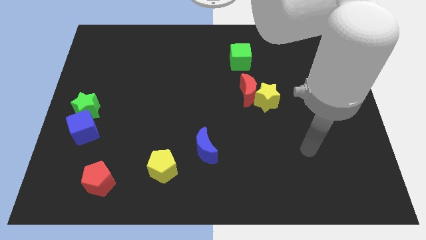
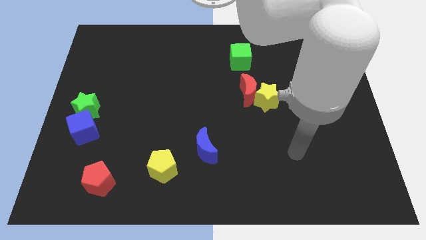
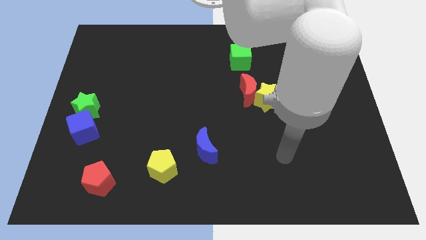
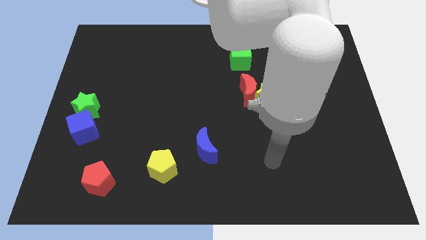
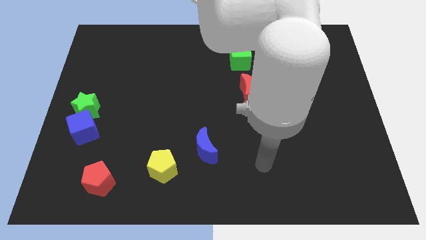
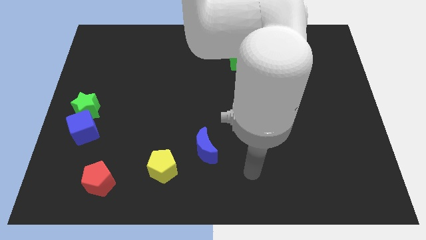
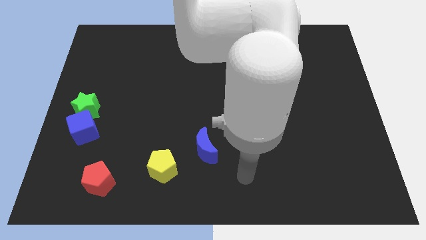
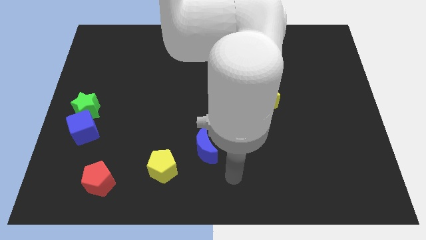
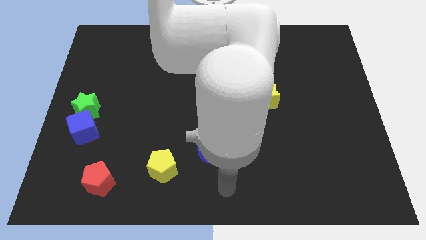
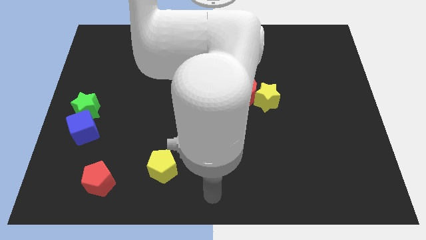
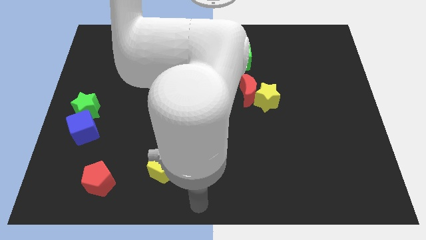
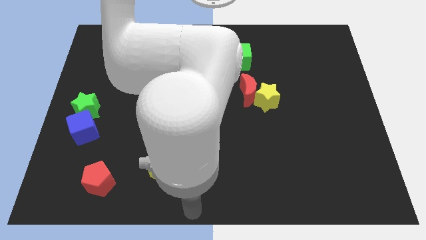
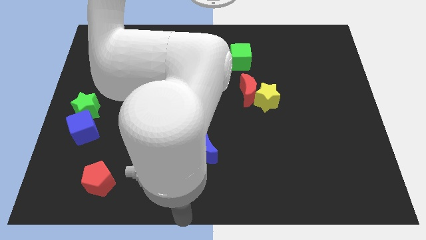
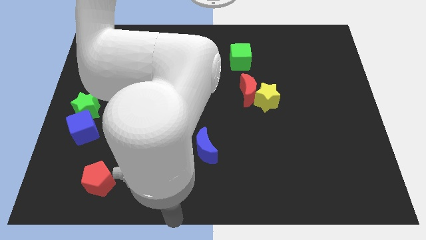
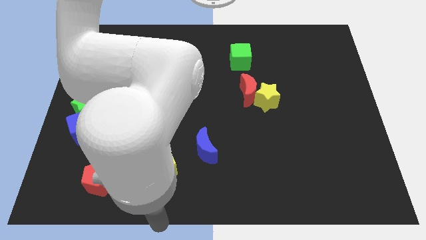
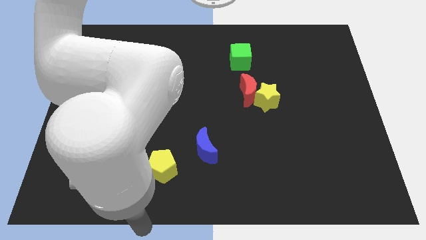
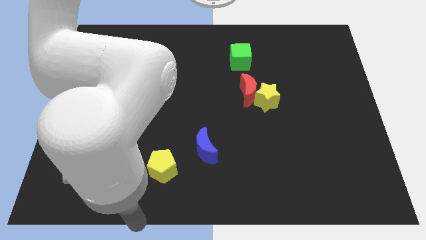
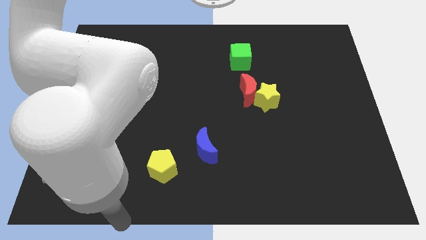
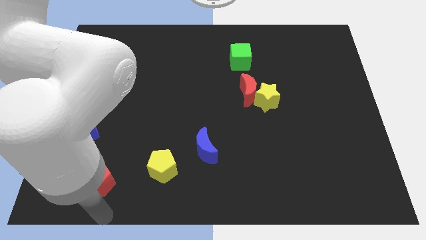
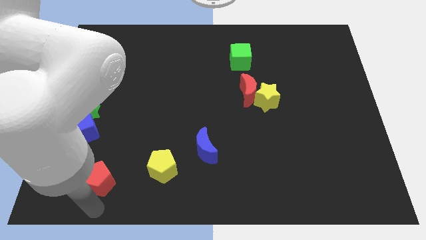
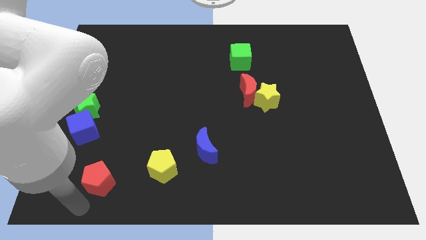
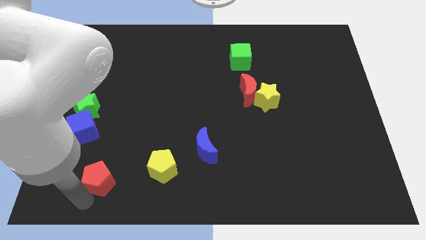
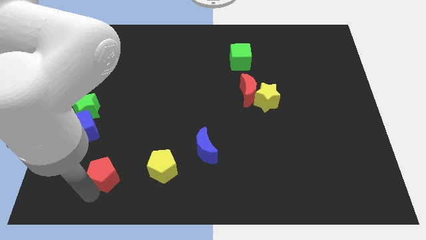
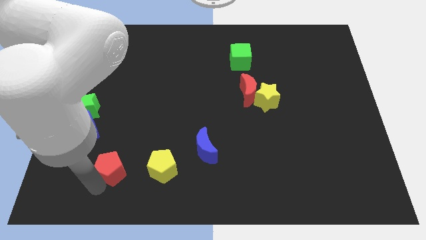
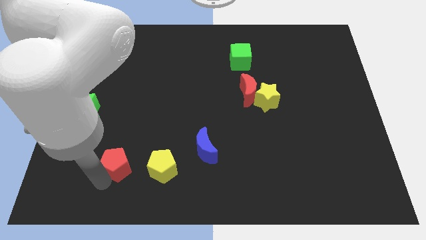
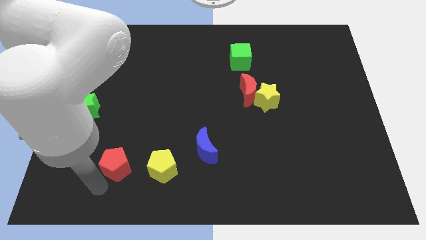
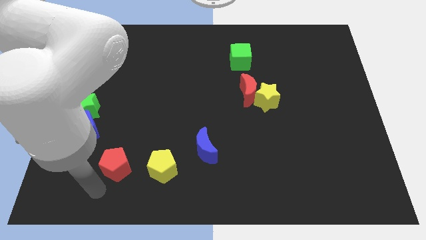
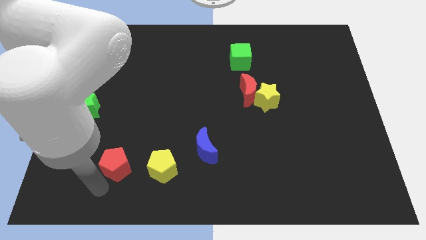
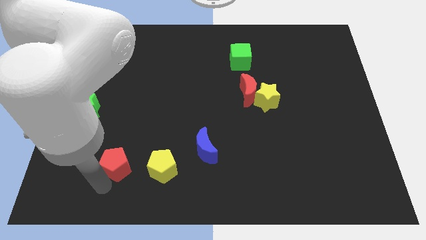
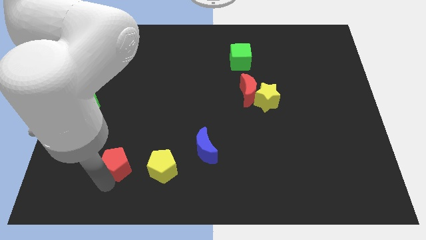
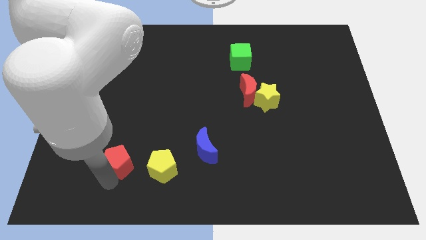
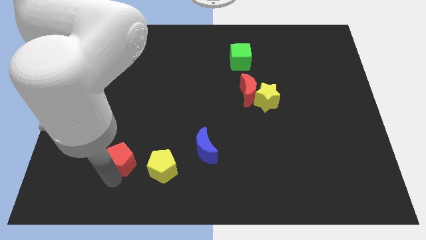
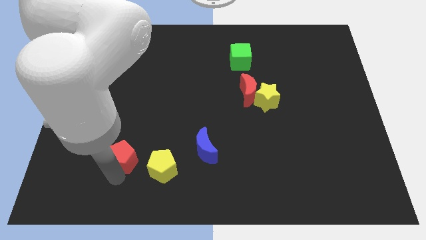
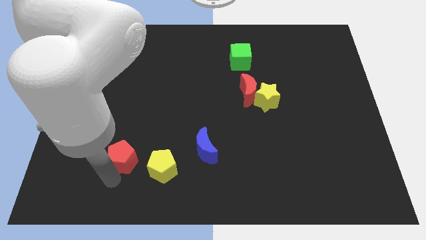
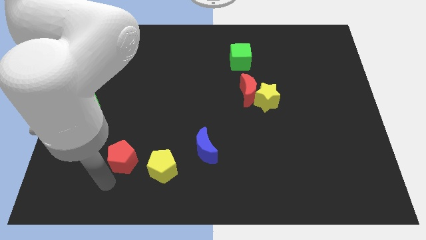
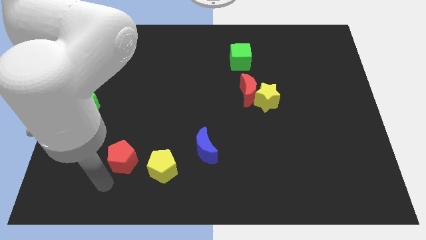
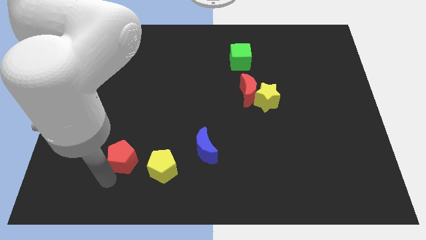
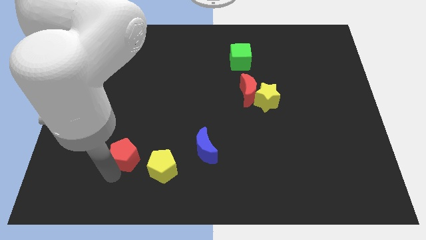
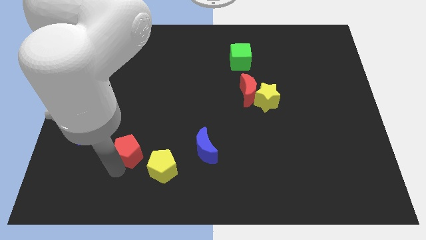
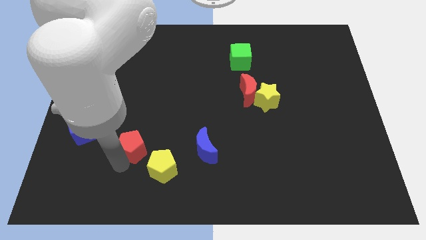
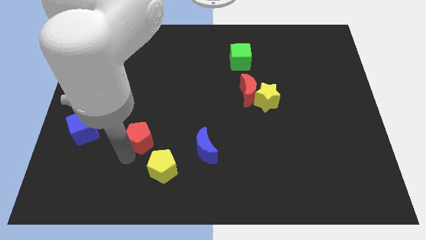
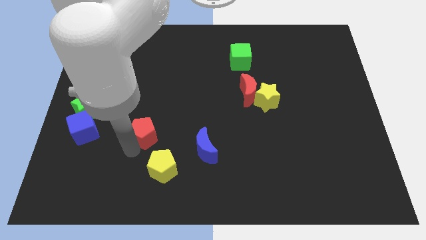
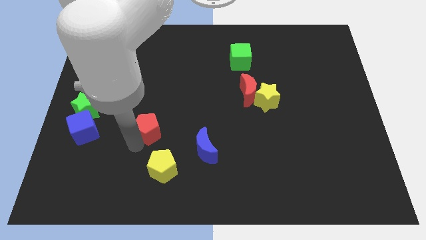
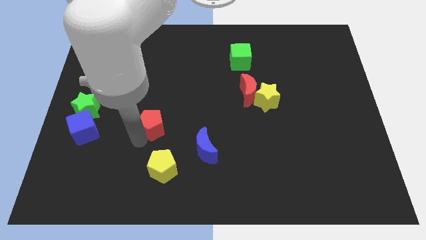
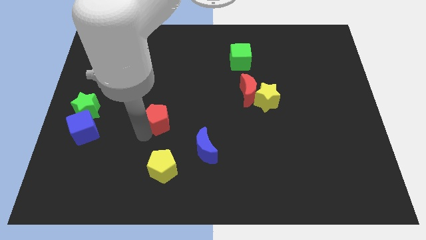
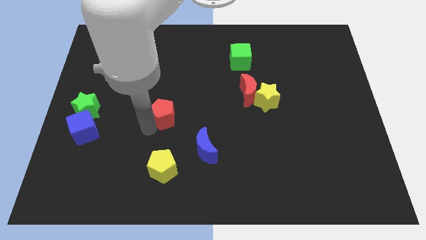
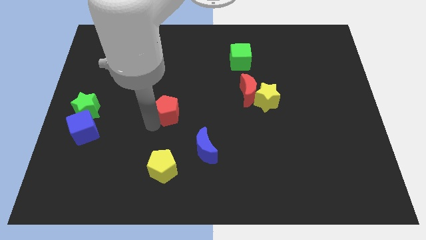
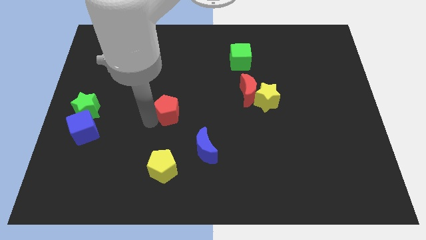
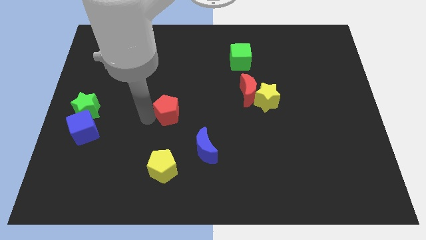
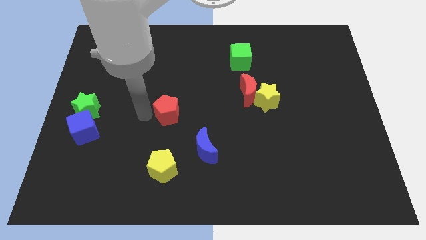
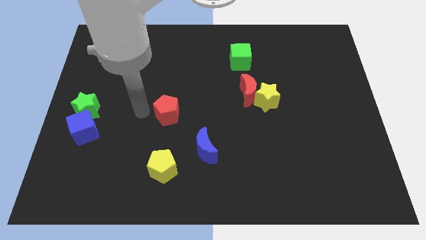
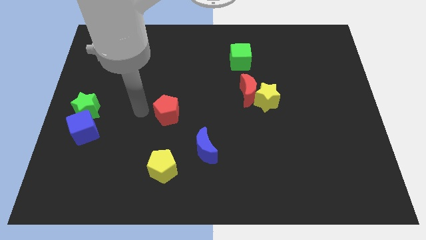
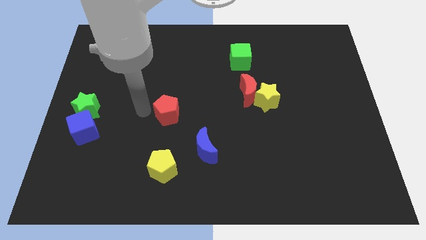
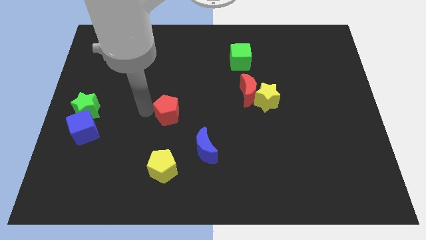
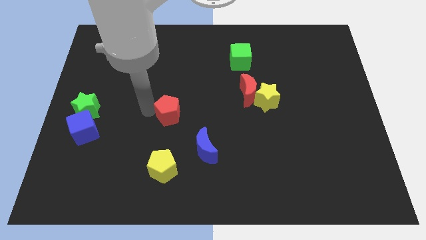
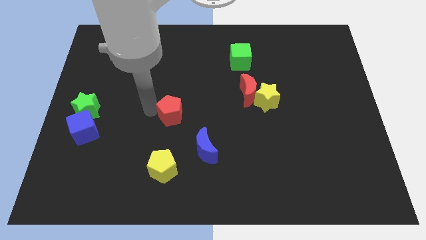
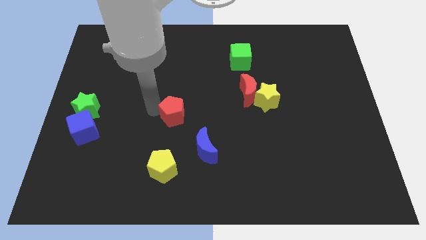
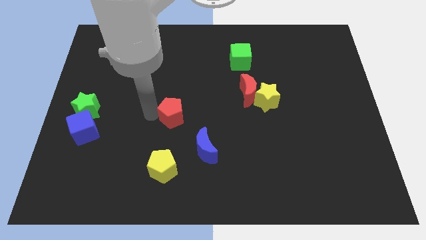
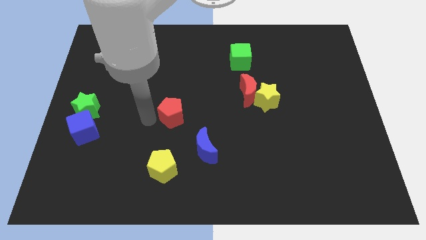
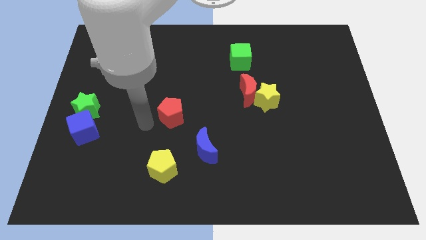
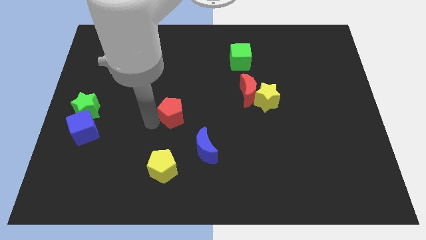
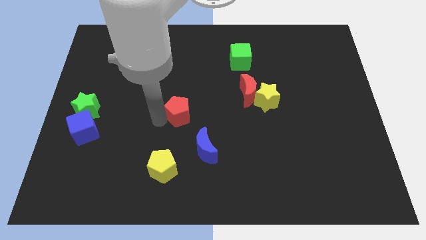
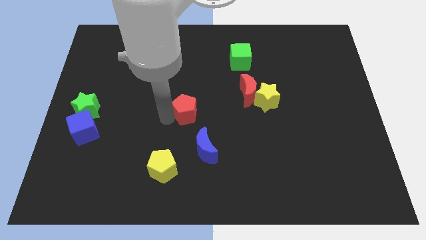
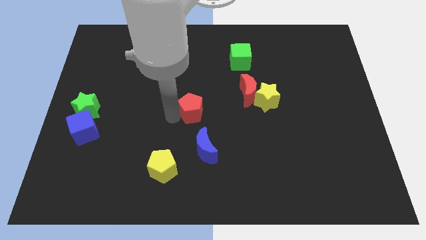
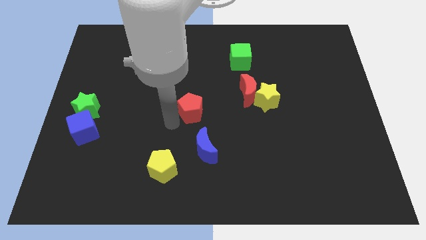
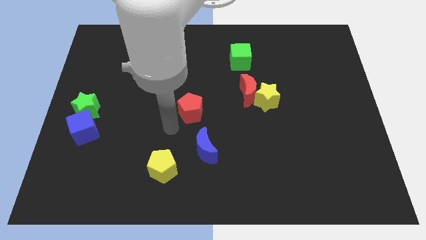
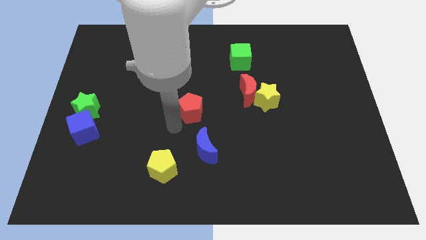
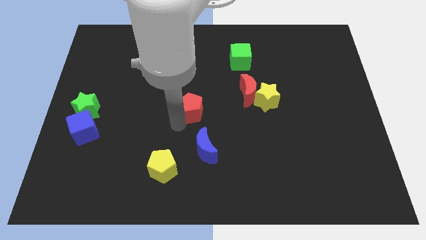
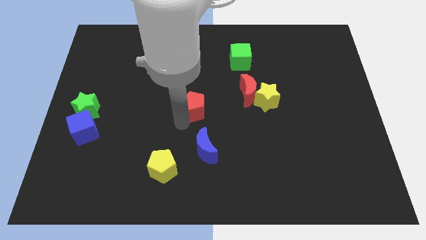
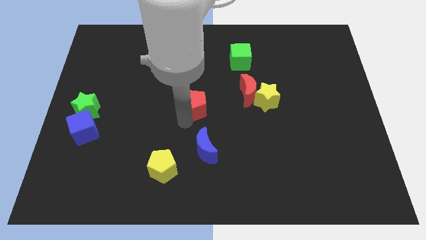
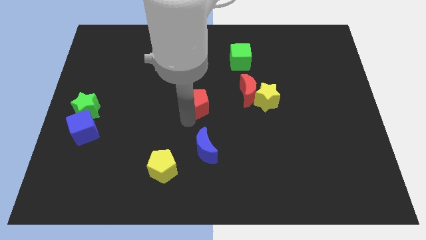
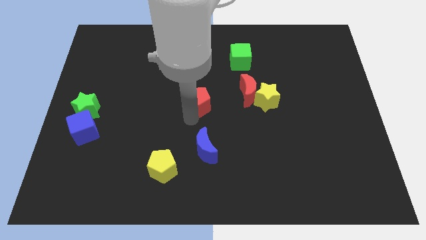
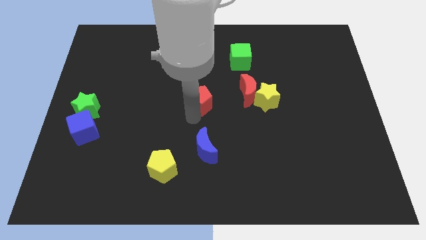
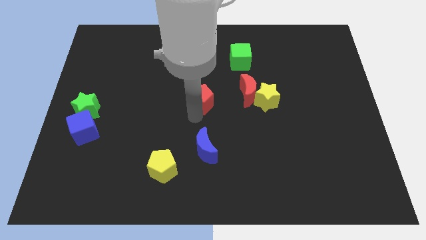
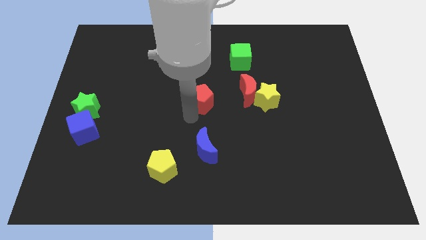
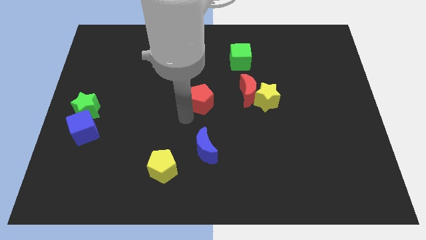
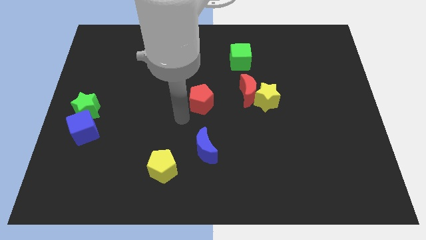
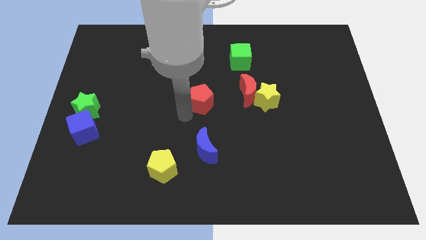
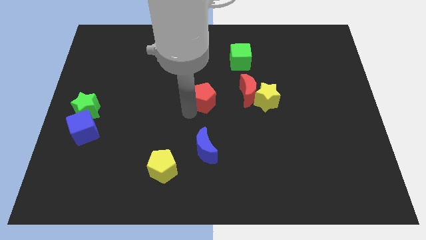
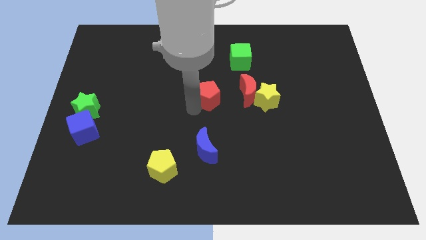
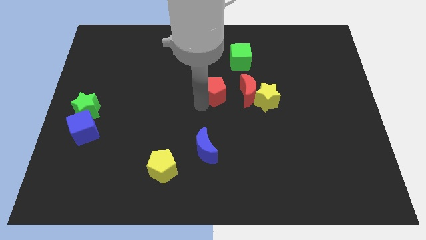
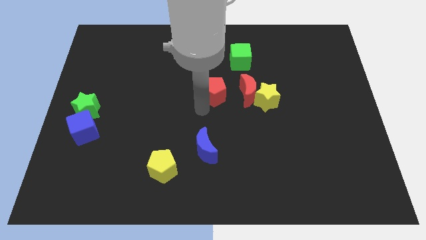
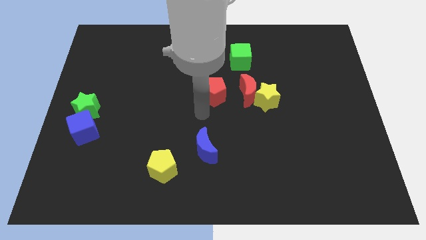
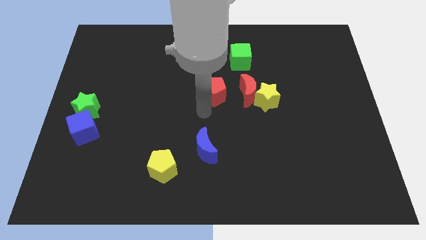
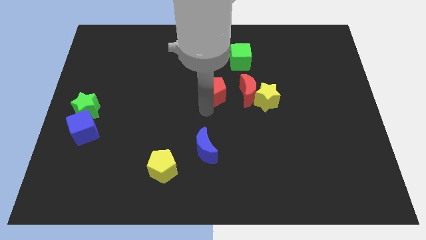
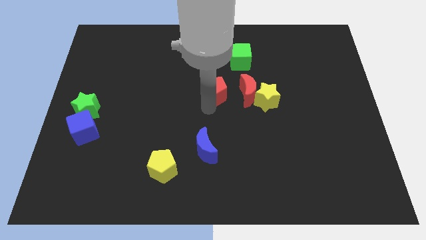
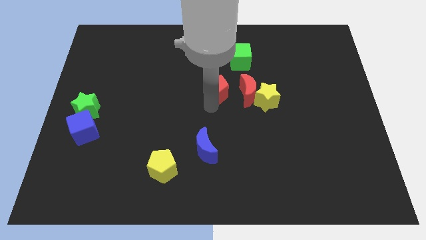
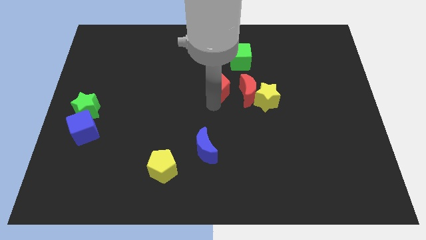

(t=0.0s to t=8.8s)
move the red pentagon diagonally up and to the left of the red moon
